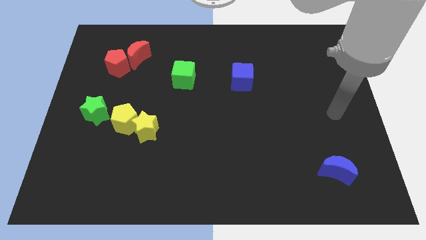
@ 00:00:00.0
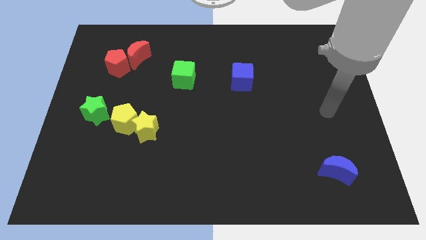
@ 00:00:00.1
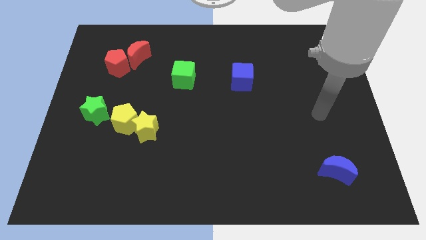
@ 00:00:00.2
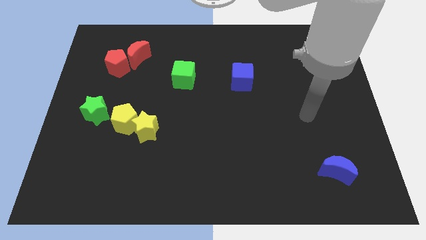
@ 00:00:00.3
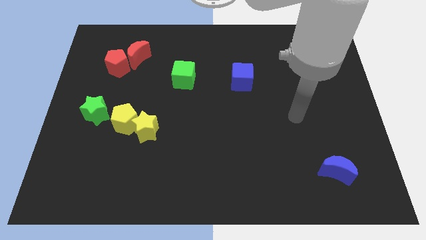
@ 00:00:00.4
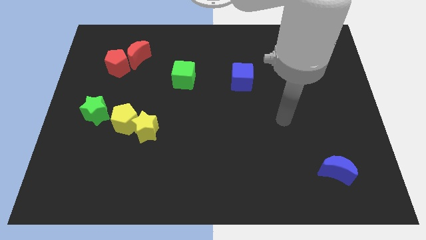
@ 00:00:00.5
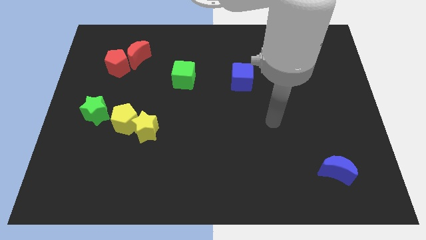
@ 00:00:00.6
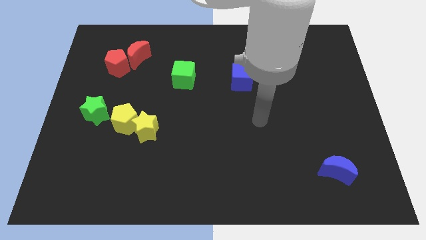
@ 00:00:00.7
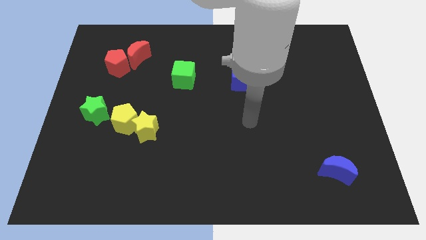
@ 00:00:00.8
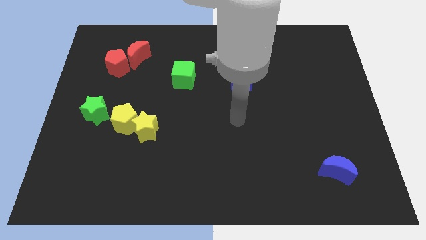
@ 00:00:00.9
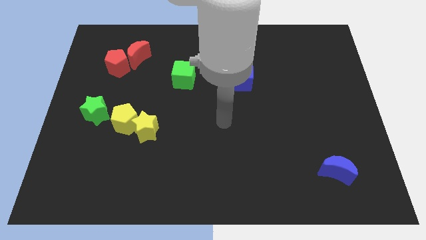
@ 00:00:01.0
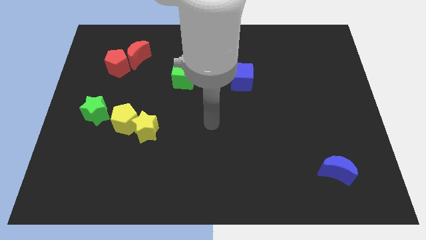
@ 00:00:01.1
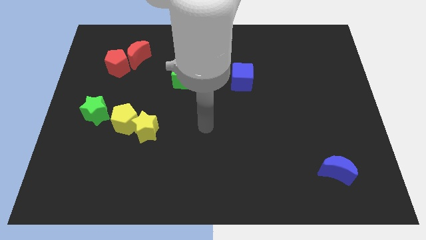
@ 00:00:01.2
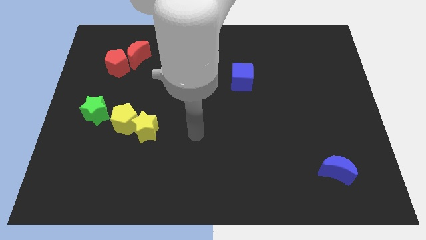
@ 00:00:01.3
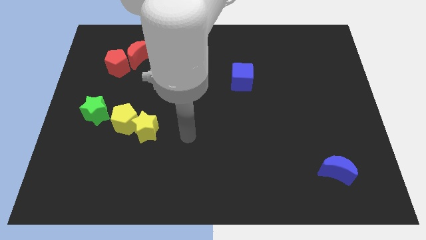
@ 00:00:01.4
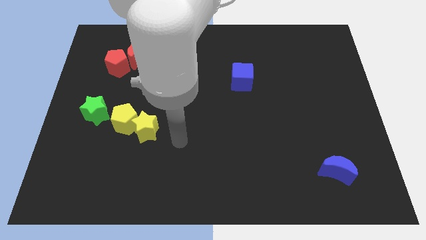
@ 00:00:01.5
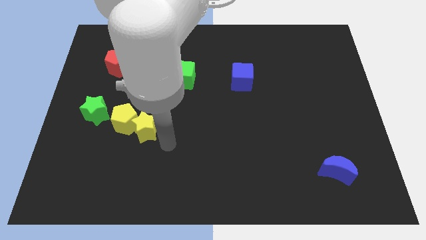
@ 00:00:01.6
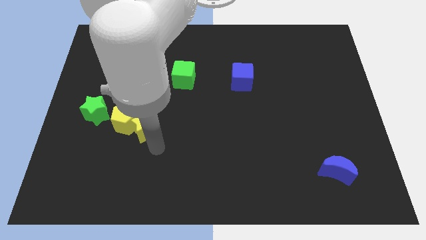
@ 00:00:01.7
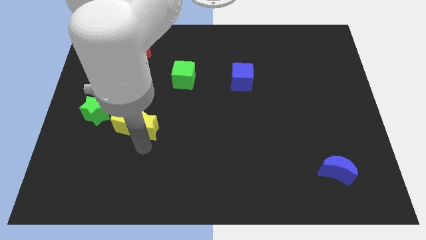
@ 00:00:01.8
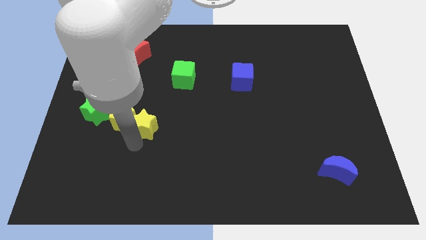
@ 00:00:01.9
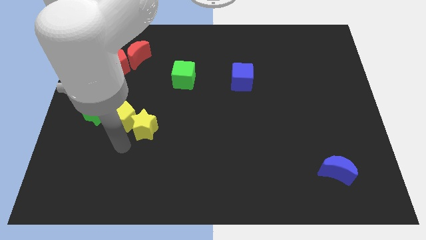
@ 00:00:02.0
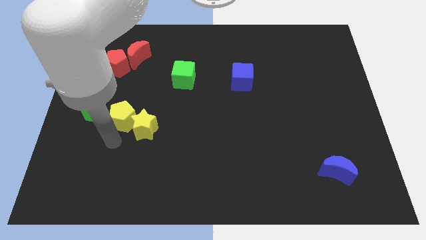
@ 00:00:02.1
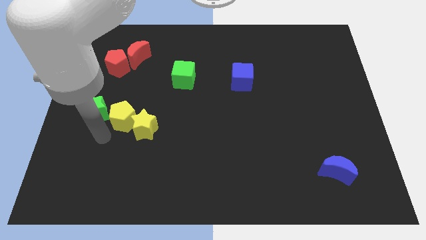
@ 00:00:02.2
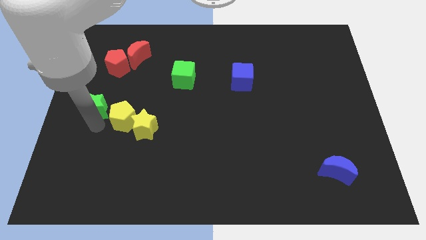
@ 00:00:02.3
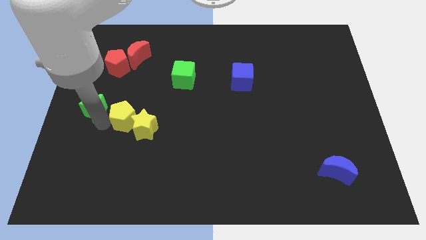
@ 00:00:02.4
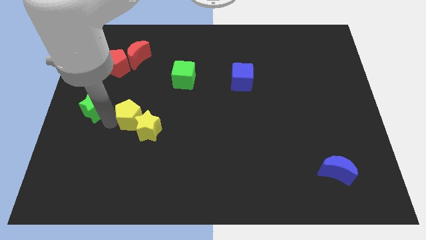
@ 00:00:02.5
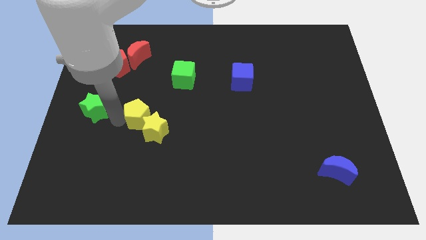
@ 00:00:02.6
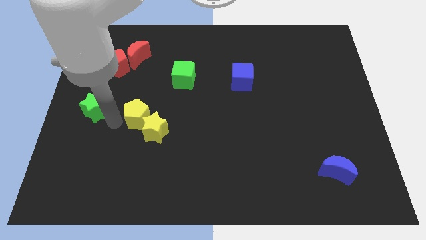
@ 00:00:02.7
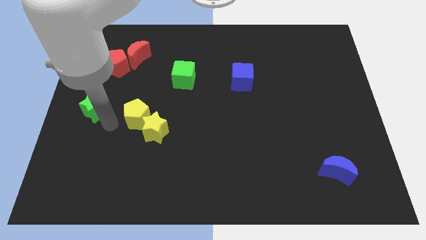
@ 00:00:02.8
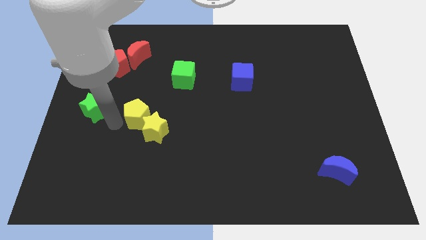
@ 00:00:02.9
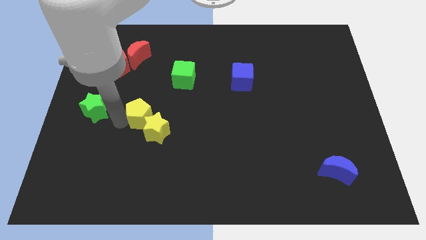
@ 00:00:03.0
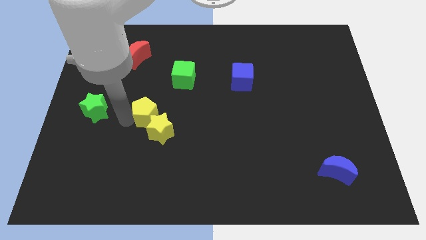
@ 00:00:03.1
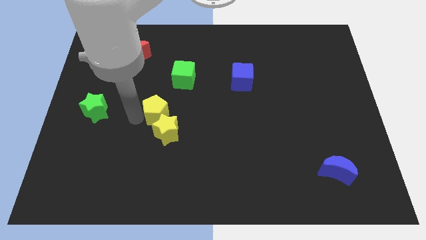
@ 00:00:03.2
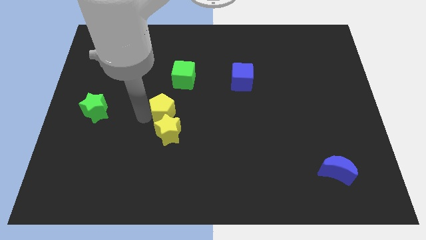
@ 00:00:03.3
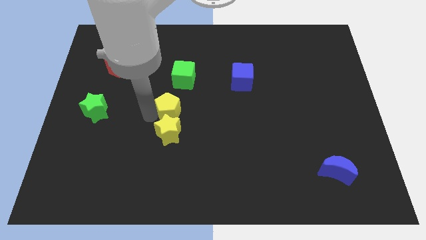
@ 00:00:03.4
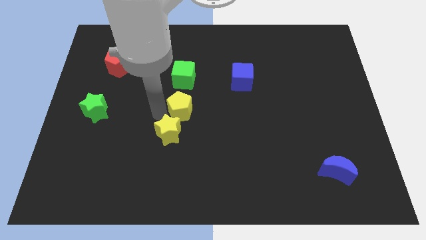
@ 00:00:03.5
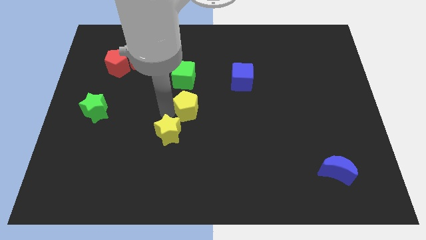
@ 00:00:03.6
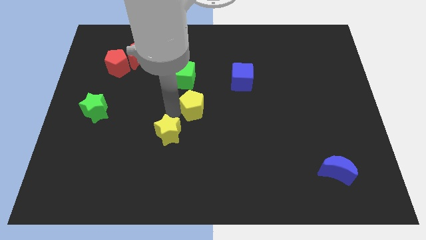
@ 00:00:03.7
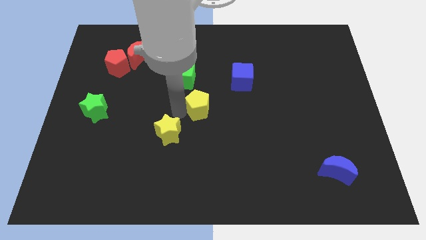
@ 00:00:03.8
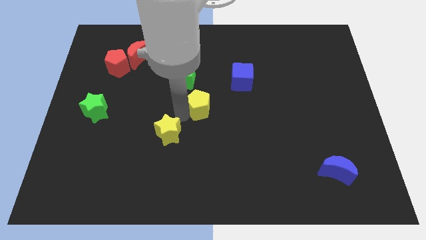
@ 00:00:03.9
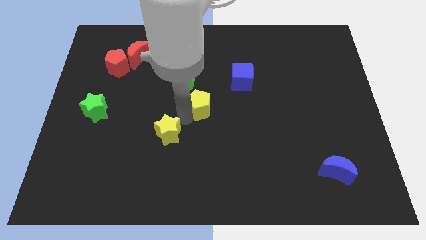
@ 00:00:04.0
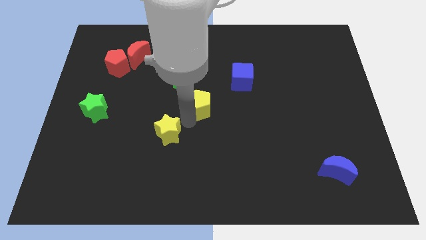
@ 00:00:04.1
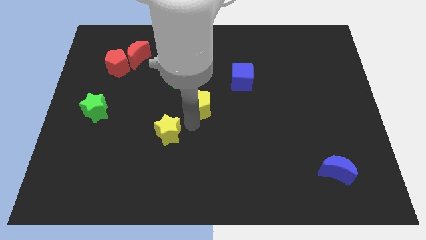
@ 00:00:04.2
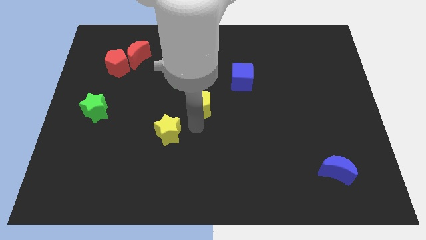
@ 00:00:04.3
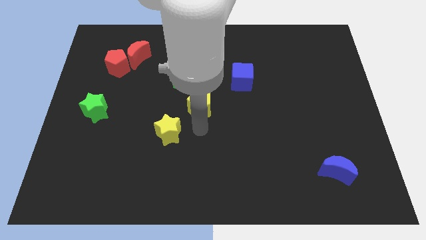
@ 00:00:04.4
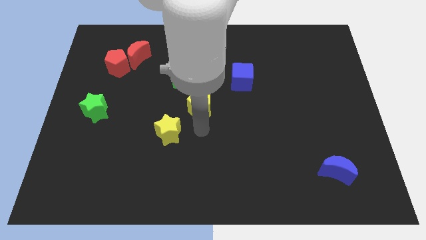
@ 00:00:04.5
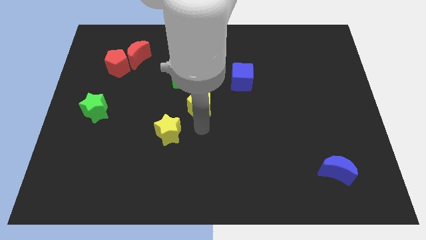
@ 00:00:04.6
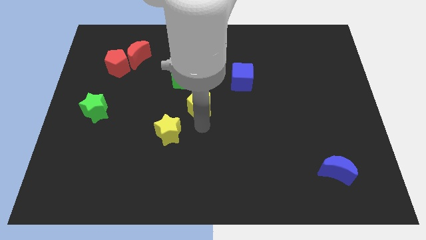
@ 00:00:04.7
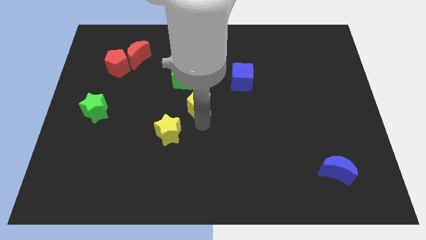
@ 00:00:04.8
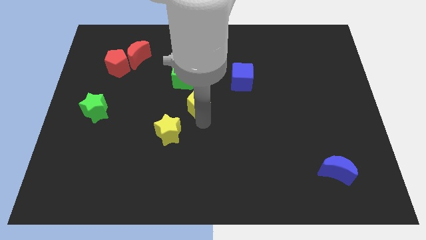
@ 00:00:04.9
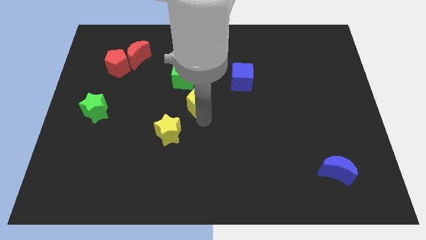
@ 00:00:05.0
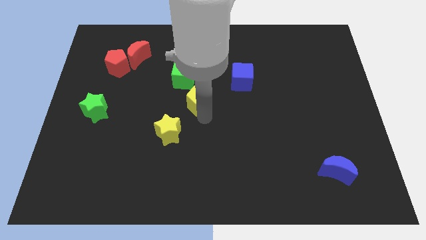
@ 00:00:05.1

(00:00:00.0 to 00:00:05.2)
push the yellow pentagon to the bottom left of the blue cube

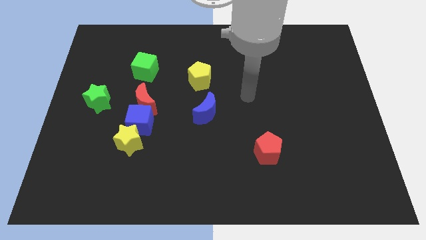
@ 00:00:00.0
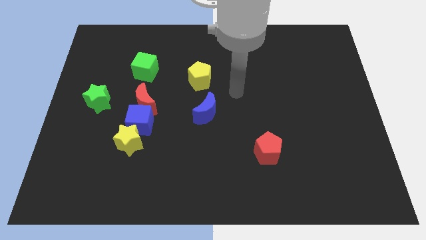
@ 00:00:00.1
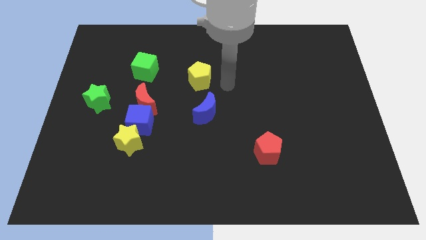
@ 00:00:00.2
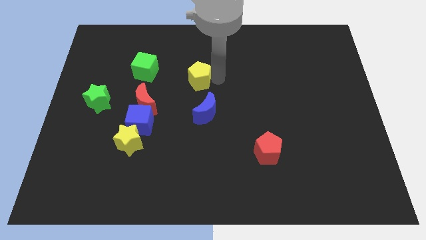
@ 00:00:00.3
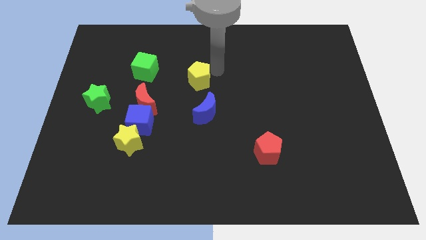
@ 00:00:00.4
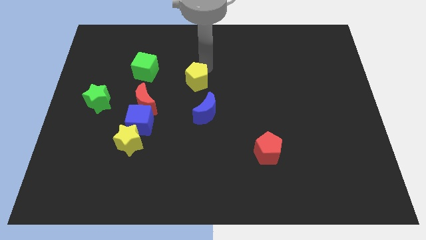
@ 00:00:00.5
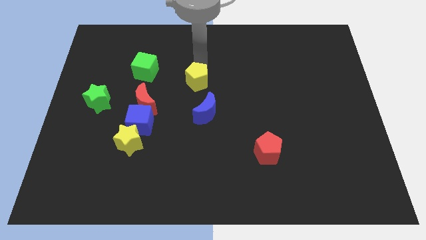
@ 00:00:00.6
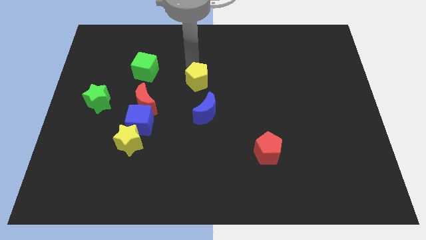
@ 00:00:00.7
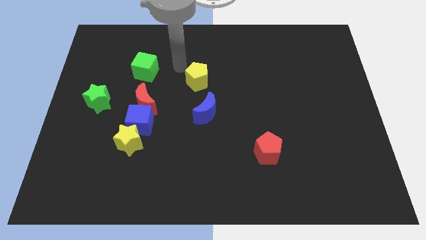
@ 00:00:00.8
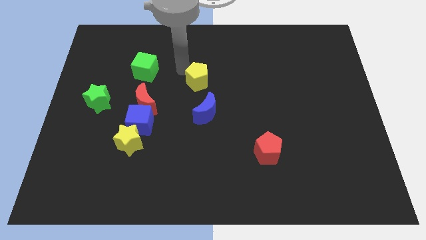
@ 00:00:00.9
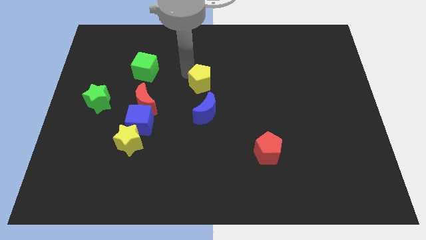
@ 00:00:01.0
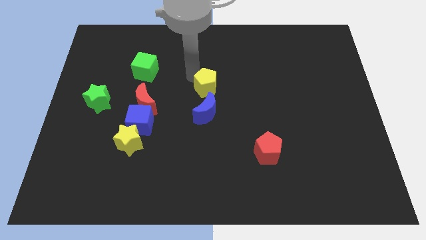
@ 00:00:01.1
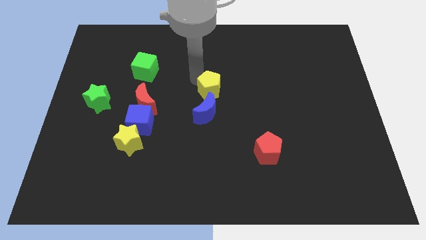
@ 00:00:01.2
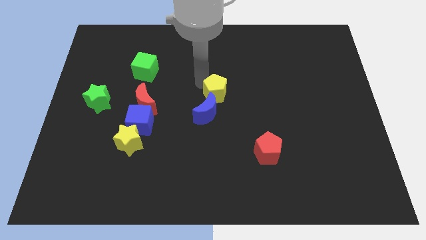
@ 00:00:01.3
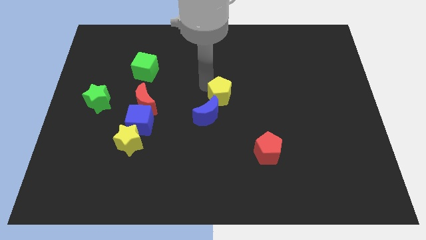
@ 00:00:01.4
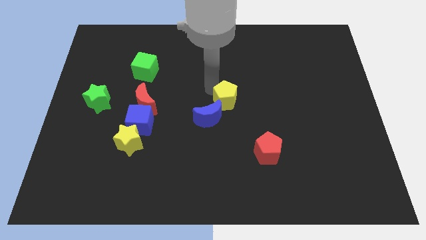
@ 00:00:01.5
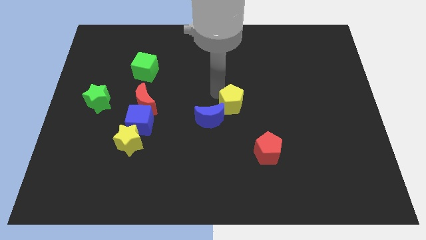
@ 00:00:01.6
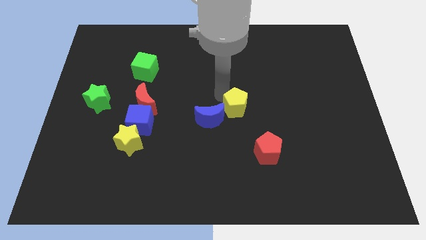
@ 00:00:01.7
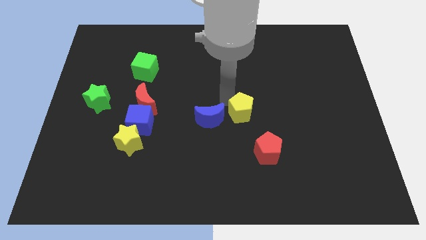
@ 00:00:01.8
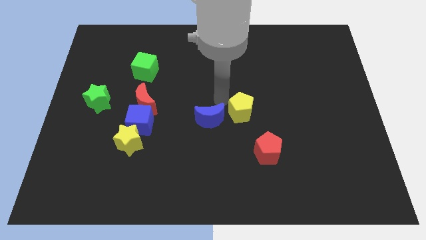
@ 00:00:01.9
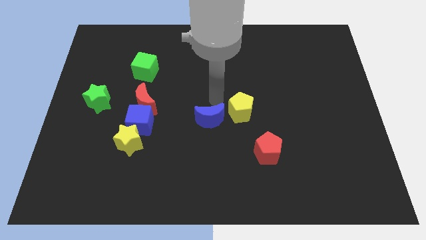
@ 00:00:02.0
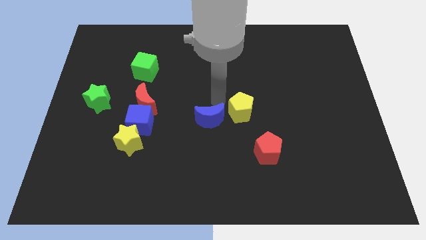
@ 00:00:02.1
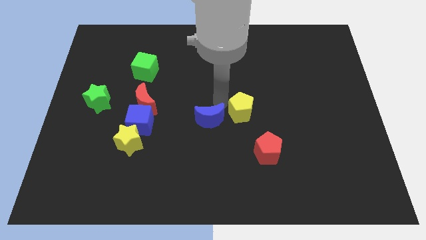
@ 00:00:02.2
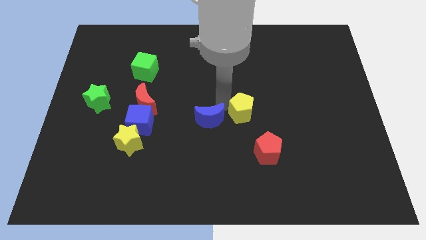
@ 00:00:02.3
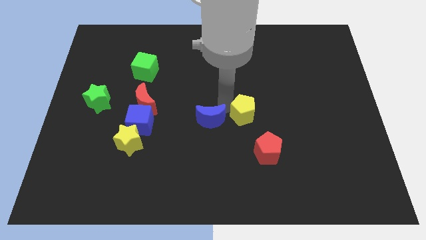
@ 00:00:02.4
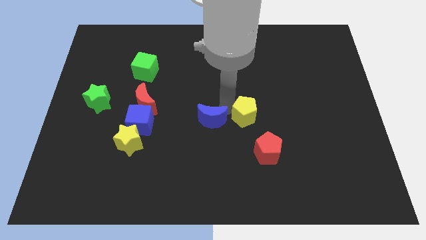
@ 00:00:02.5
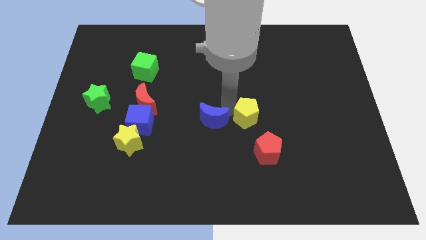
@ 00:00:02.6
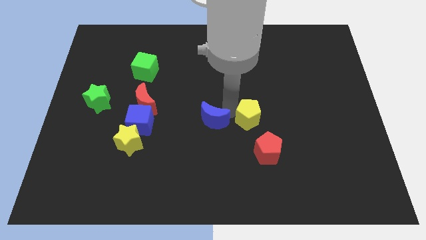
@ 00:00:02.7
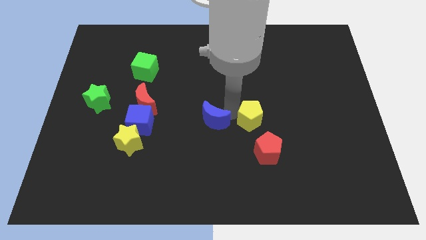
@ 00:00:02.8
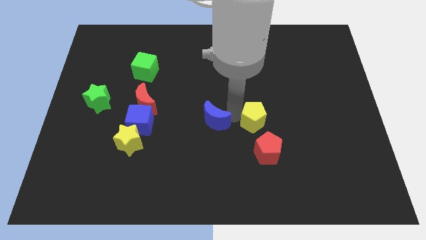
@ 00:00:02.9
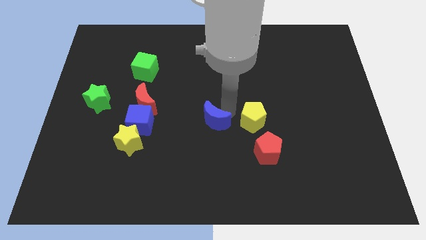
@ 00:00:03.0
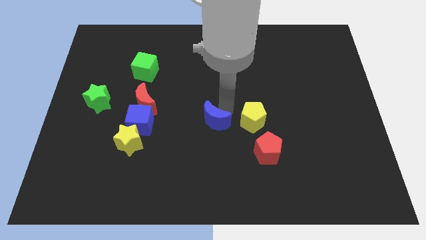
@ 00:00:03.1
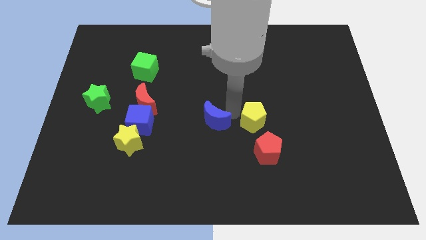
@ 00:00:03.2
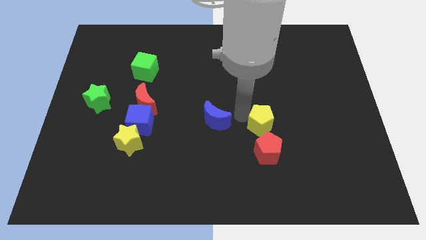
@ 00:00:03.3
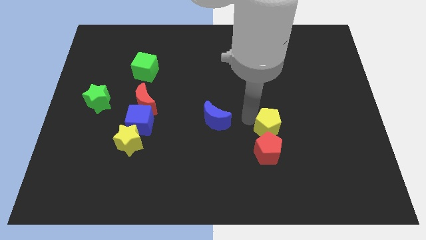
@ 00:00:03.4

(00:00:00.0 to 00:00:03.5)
put the yellow pentagon to the top right side of the red pentagon
